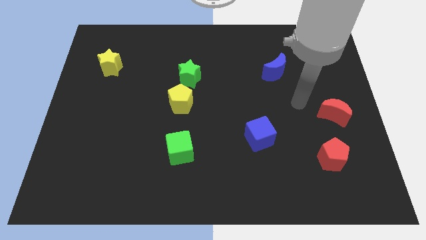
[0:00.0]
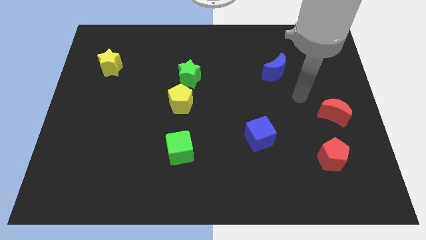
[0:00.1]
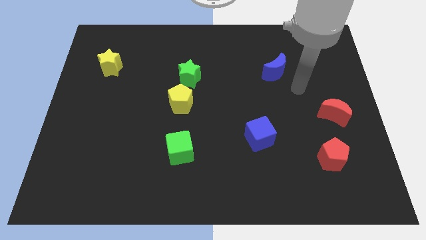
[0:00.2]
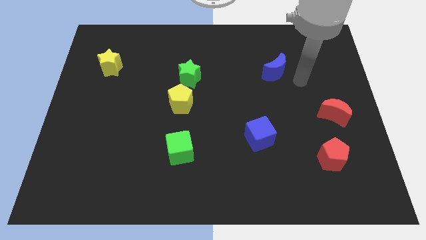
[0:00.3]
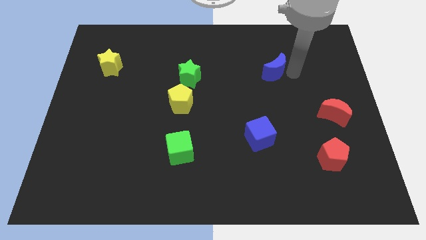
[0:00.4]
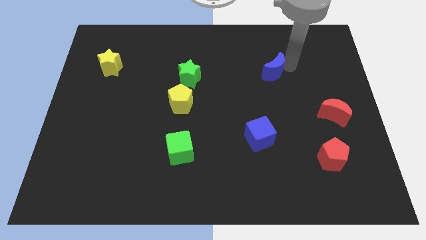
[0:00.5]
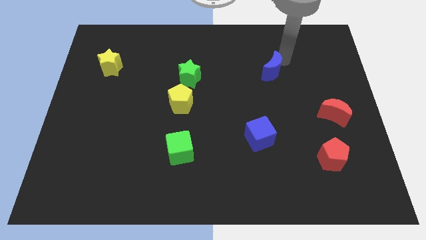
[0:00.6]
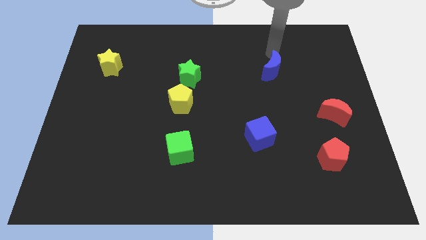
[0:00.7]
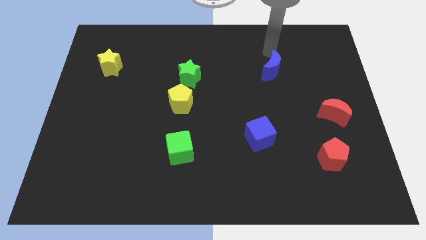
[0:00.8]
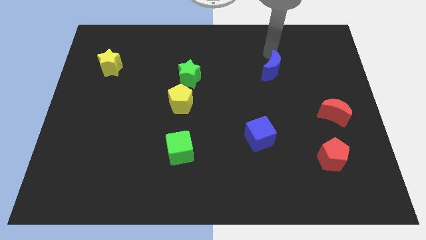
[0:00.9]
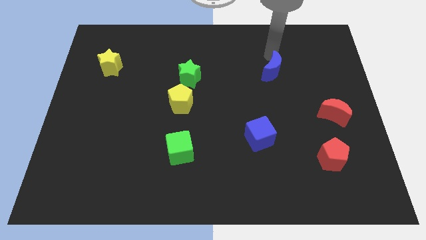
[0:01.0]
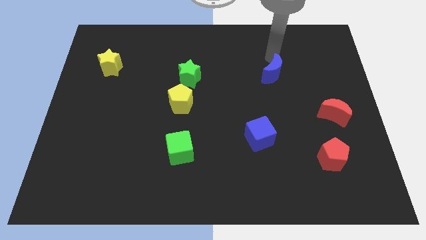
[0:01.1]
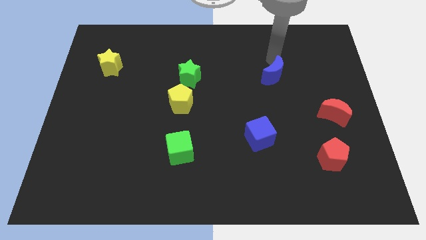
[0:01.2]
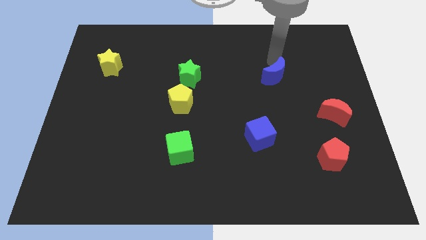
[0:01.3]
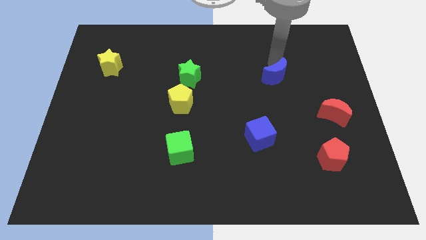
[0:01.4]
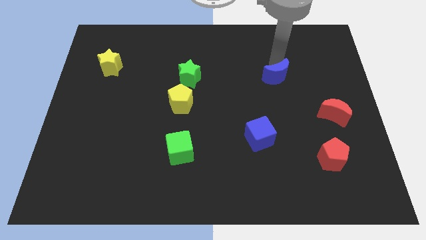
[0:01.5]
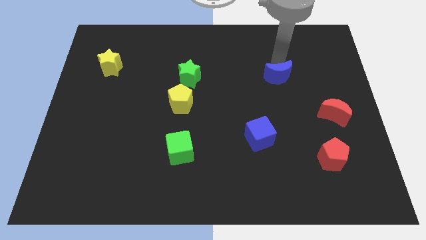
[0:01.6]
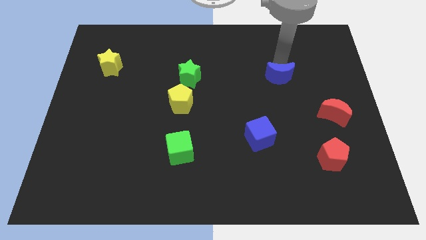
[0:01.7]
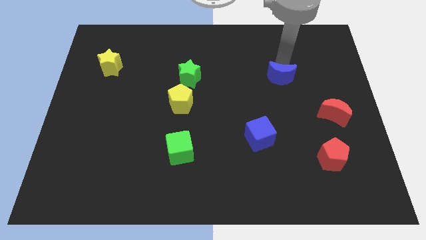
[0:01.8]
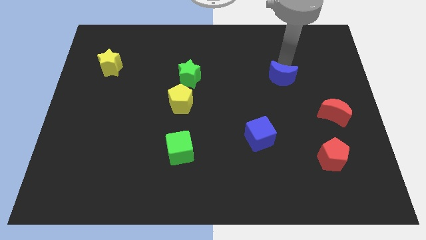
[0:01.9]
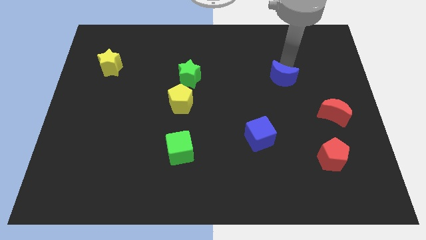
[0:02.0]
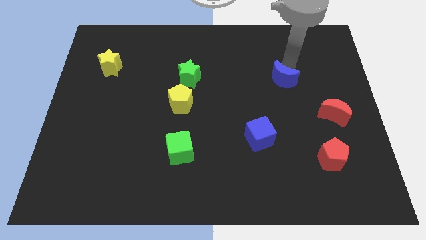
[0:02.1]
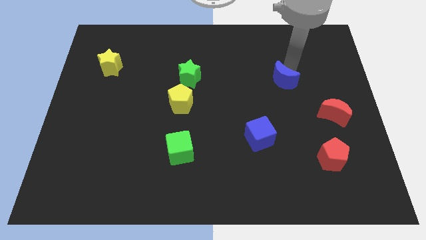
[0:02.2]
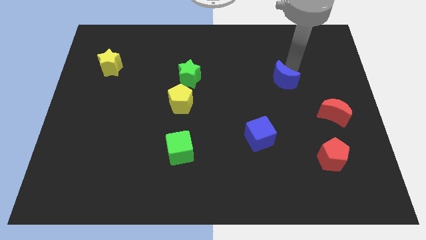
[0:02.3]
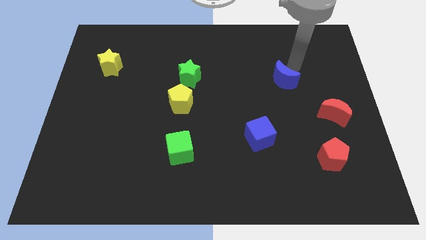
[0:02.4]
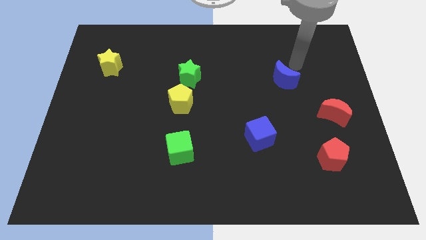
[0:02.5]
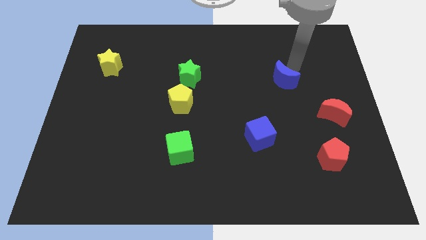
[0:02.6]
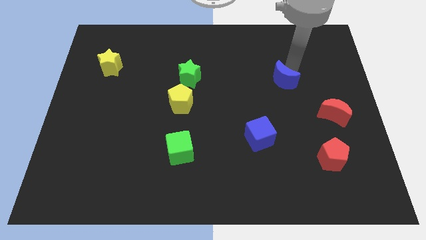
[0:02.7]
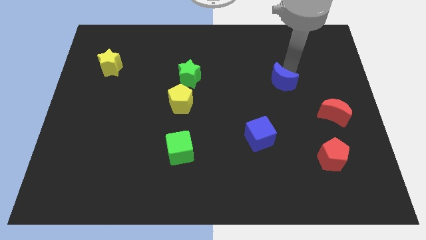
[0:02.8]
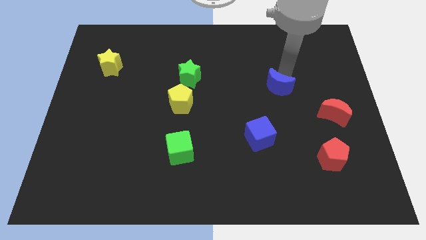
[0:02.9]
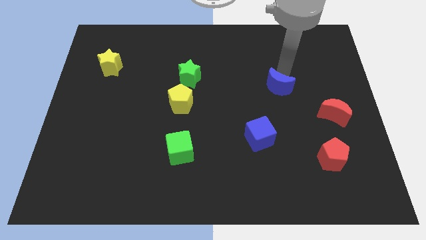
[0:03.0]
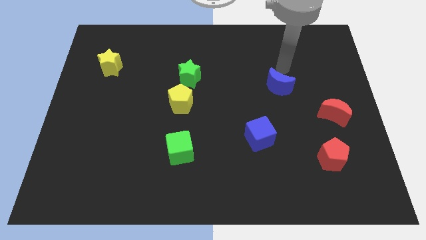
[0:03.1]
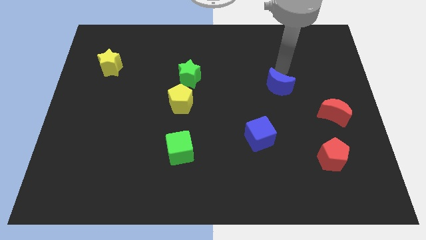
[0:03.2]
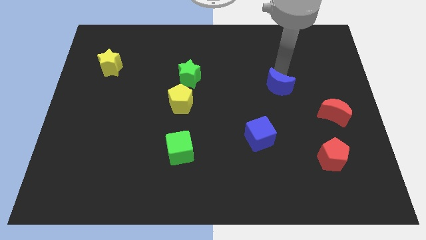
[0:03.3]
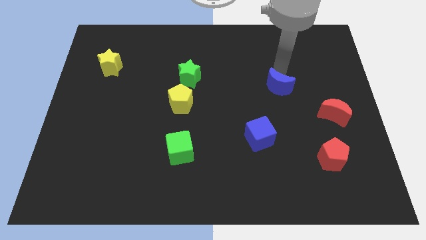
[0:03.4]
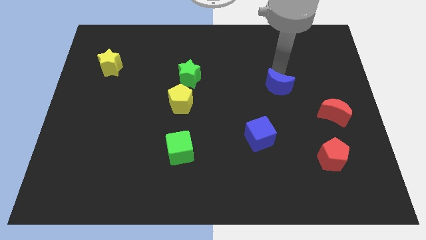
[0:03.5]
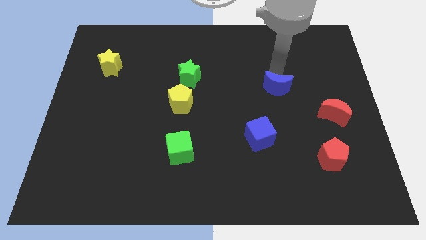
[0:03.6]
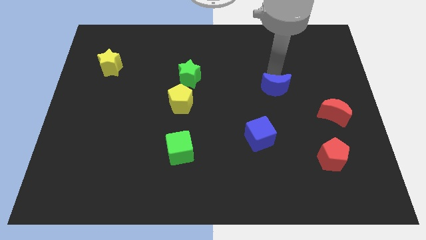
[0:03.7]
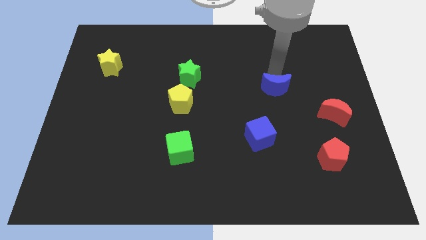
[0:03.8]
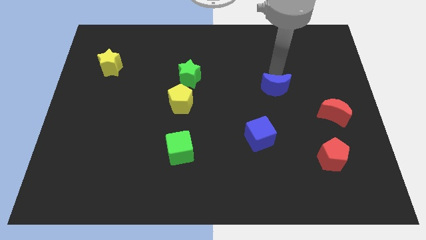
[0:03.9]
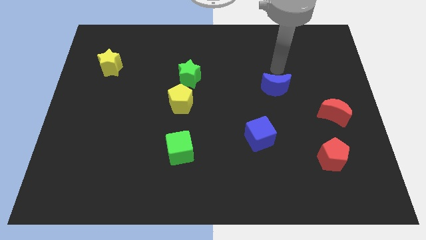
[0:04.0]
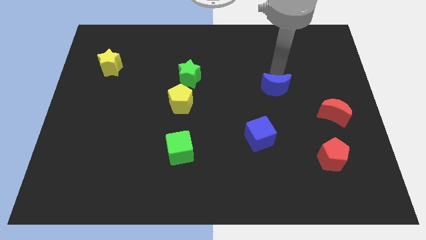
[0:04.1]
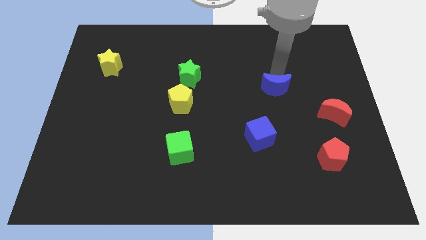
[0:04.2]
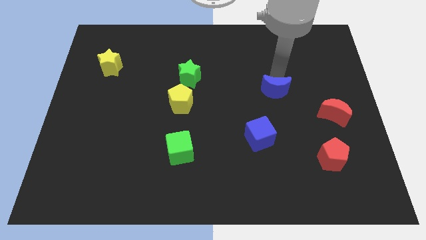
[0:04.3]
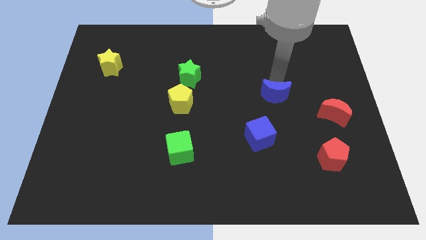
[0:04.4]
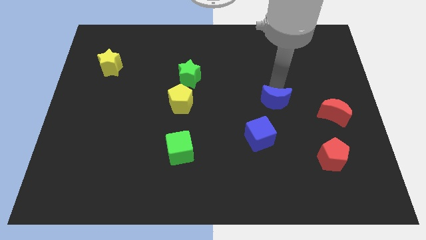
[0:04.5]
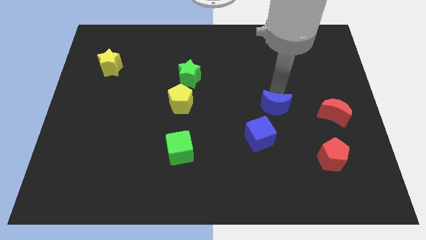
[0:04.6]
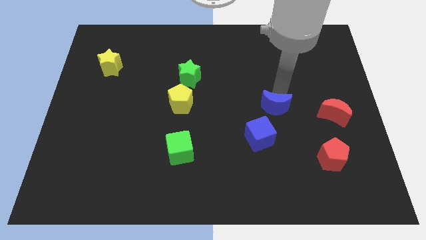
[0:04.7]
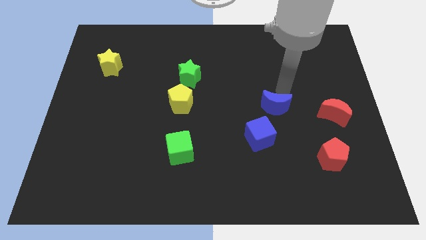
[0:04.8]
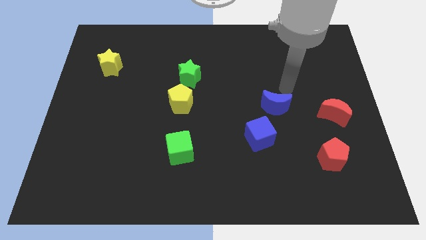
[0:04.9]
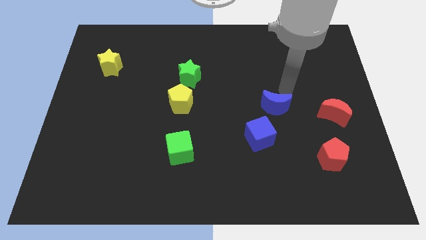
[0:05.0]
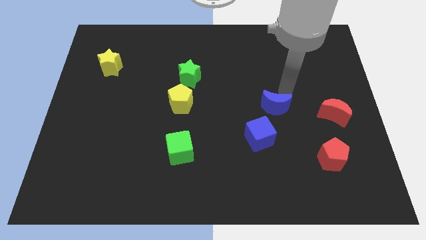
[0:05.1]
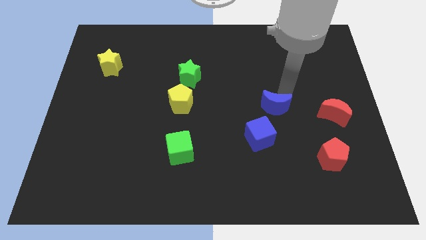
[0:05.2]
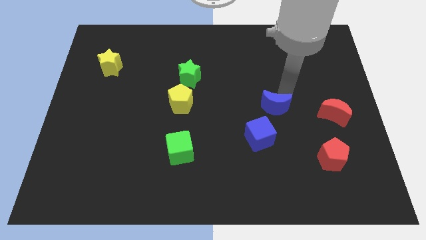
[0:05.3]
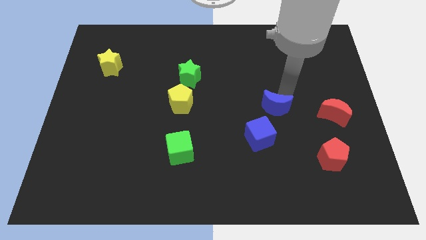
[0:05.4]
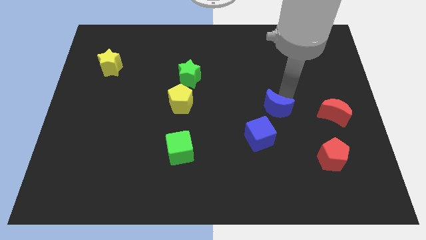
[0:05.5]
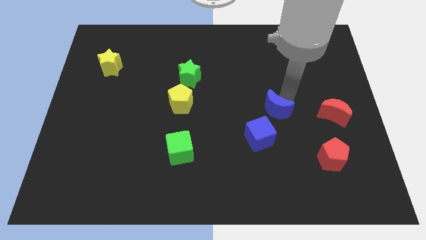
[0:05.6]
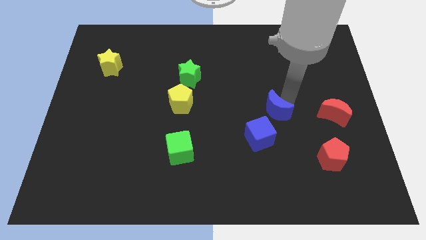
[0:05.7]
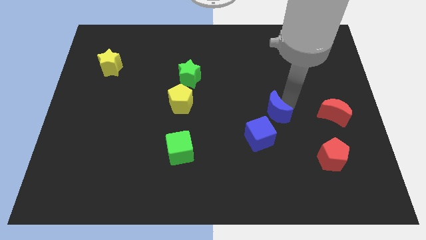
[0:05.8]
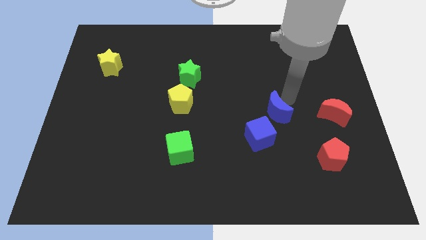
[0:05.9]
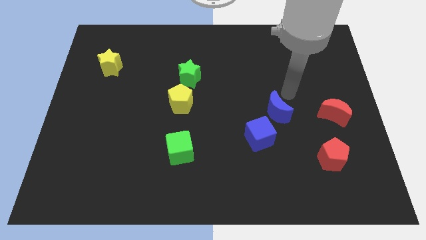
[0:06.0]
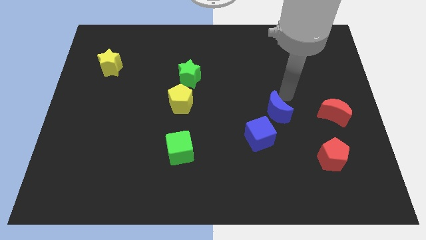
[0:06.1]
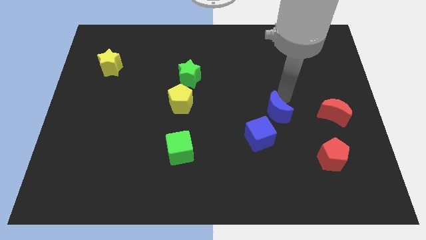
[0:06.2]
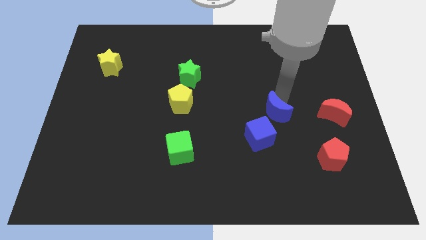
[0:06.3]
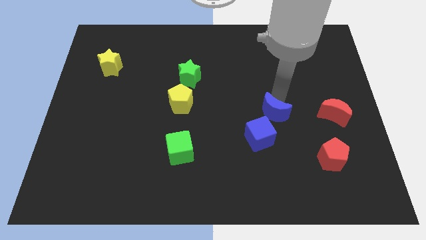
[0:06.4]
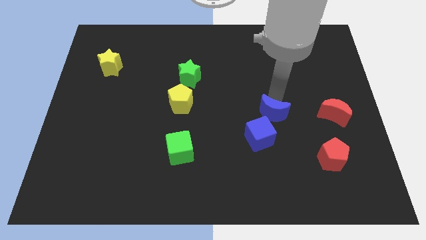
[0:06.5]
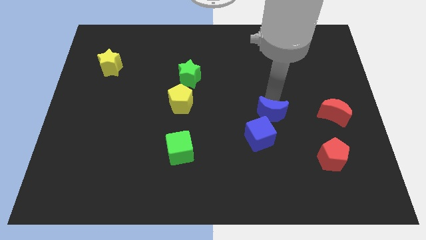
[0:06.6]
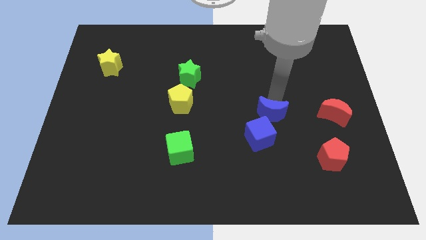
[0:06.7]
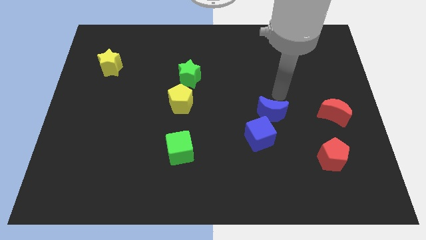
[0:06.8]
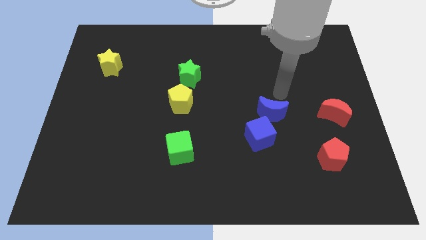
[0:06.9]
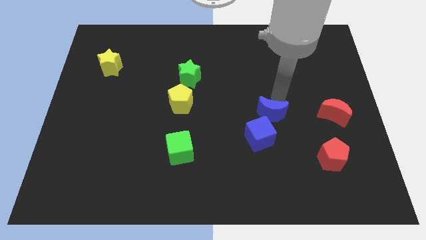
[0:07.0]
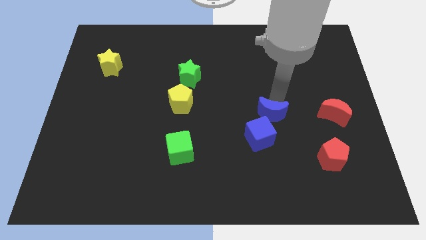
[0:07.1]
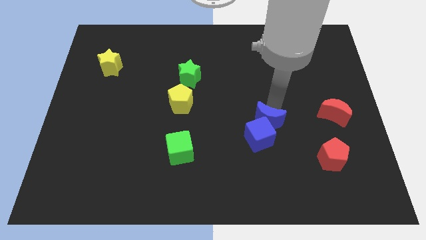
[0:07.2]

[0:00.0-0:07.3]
slide the blue moon towards the blue cube
